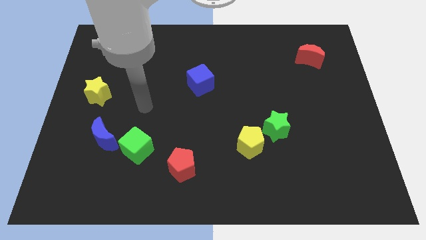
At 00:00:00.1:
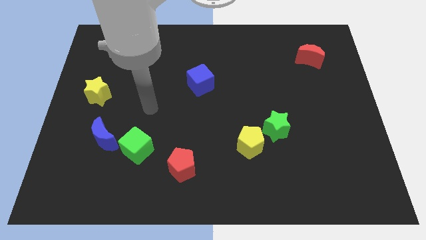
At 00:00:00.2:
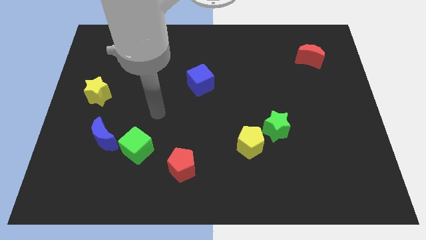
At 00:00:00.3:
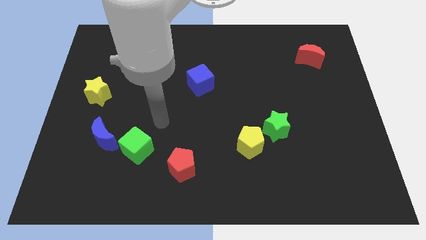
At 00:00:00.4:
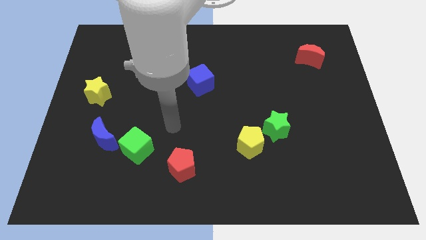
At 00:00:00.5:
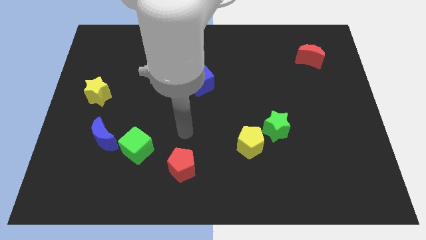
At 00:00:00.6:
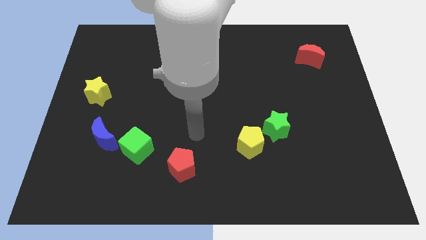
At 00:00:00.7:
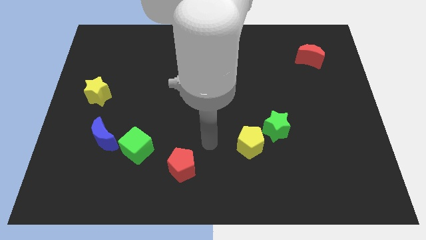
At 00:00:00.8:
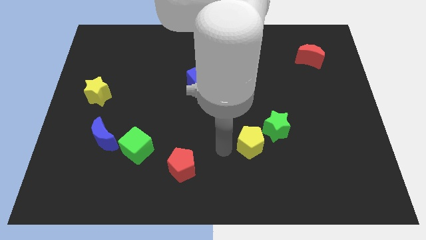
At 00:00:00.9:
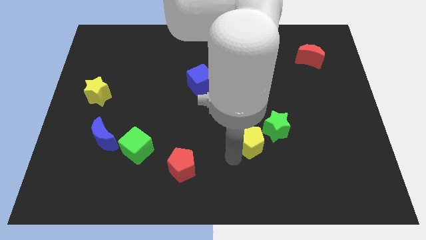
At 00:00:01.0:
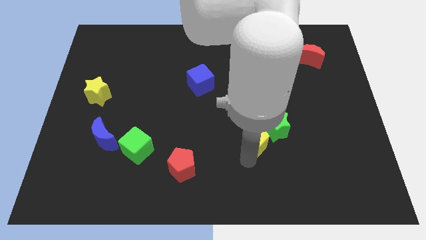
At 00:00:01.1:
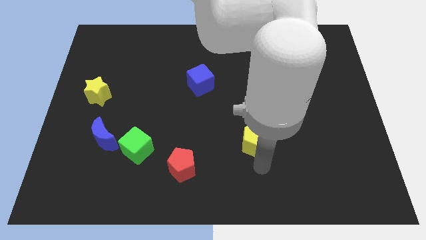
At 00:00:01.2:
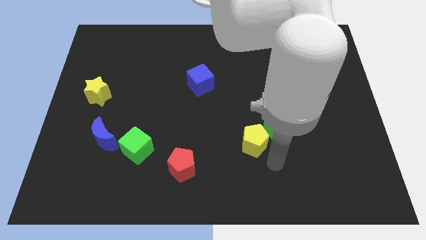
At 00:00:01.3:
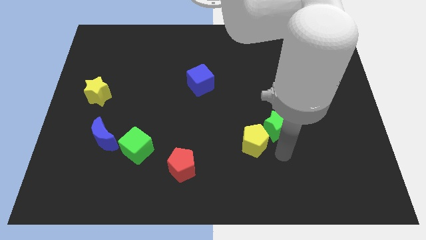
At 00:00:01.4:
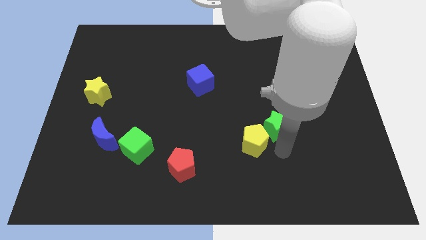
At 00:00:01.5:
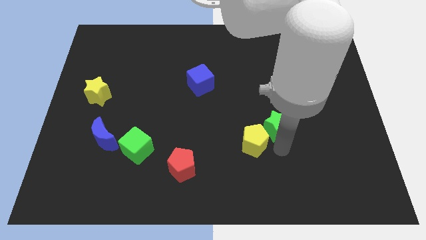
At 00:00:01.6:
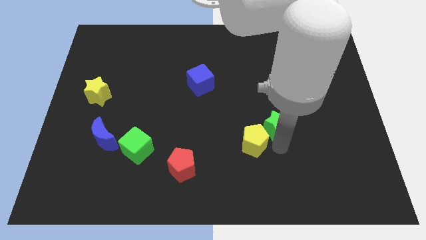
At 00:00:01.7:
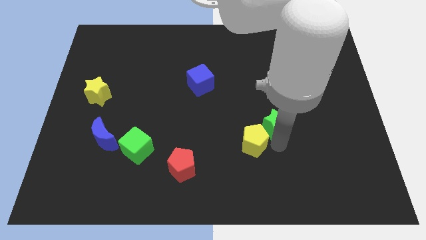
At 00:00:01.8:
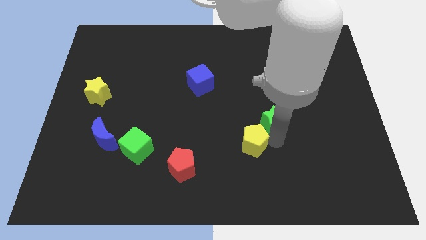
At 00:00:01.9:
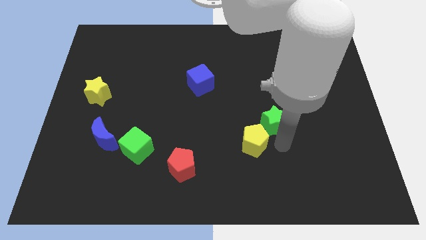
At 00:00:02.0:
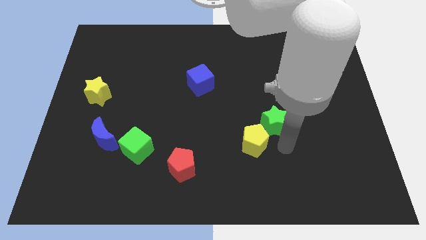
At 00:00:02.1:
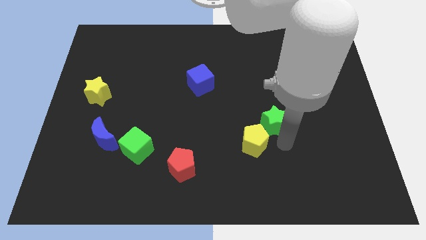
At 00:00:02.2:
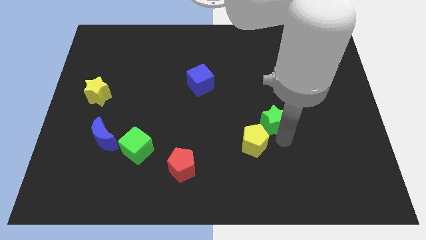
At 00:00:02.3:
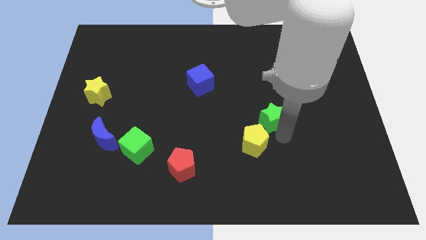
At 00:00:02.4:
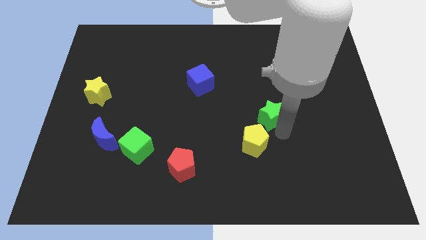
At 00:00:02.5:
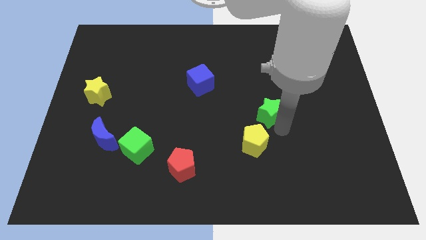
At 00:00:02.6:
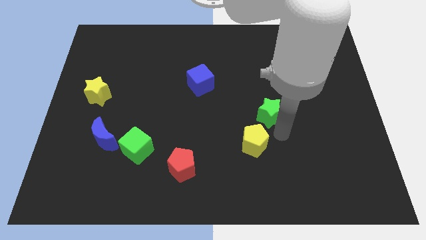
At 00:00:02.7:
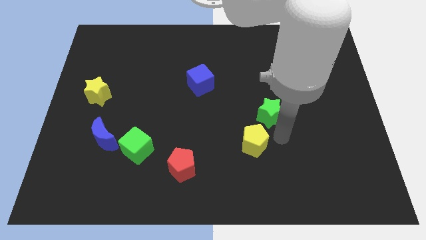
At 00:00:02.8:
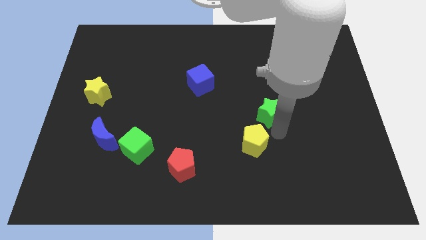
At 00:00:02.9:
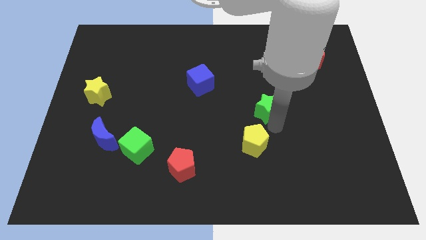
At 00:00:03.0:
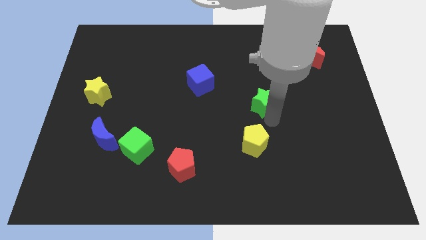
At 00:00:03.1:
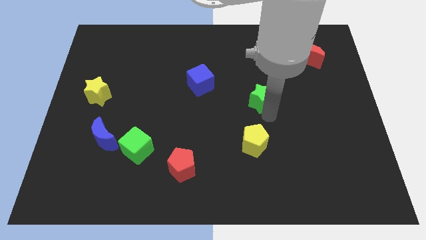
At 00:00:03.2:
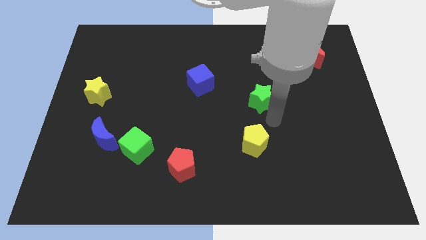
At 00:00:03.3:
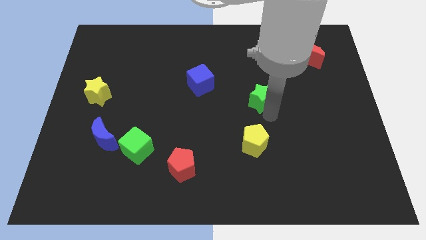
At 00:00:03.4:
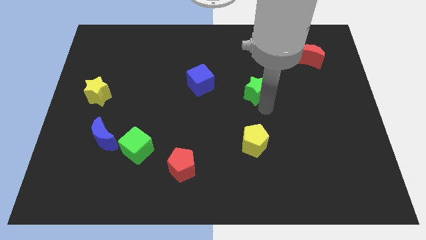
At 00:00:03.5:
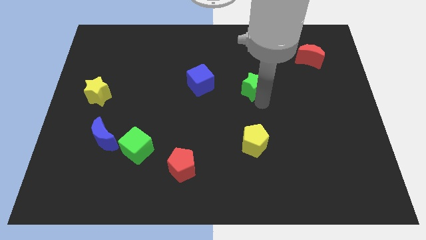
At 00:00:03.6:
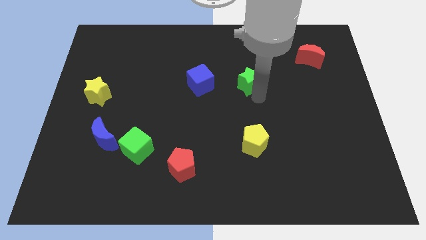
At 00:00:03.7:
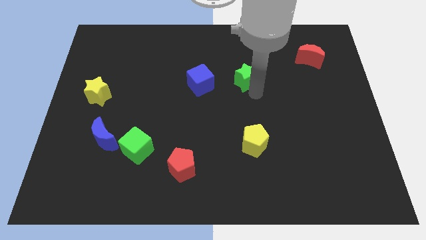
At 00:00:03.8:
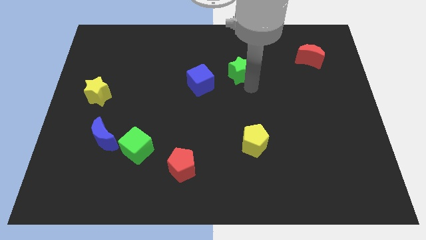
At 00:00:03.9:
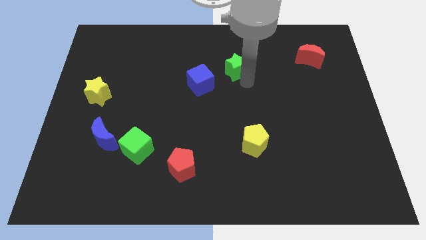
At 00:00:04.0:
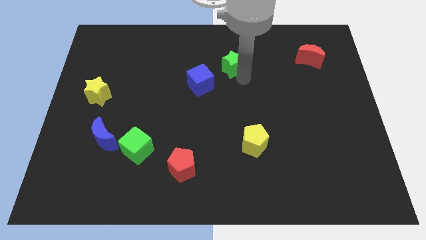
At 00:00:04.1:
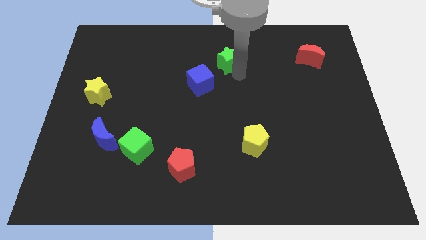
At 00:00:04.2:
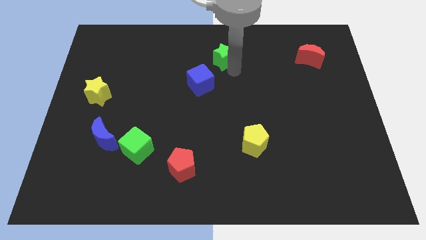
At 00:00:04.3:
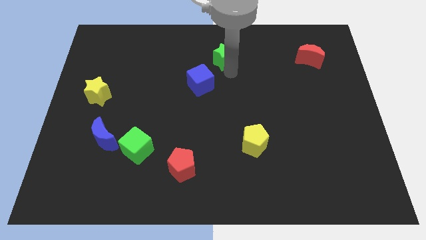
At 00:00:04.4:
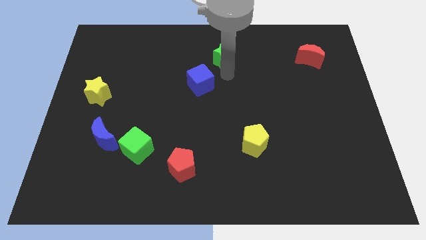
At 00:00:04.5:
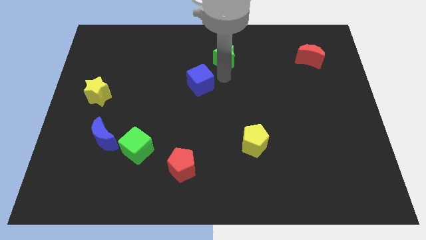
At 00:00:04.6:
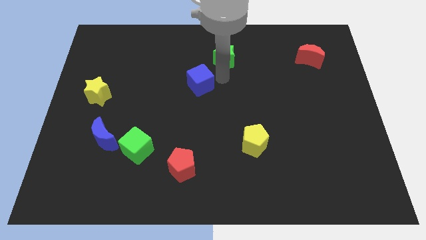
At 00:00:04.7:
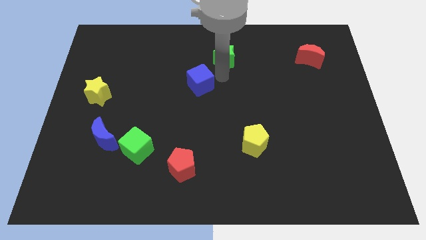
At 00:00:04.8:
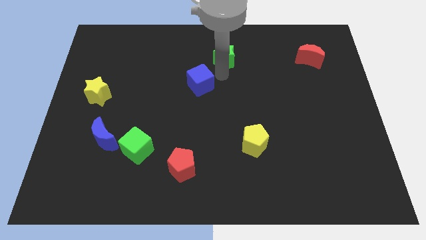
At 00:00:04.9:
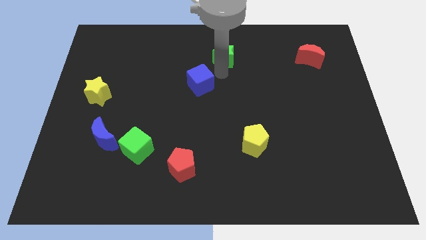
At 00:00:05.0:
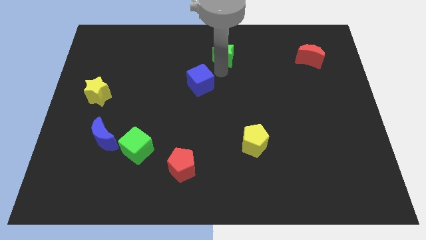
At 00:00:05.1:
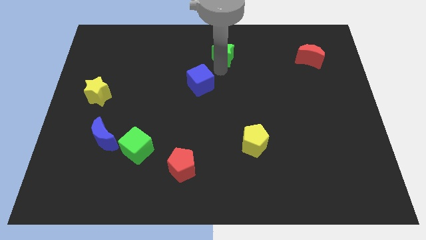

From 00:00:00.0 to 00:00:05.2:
put the green star to the top side

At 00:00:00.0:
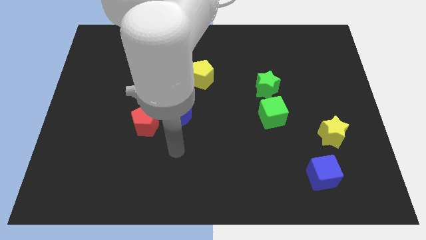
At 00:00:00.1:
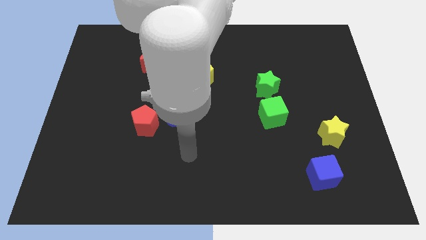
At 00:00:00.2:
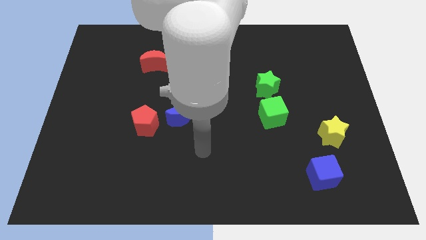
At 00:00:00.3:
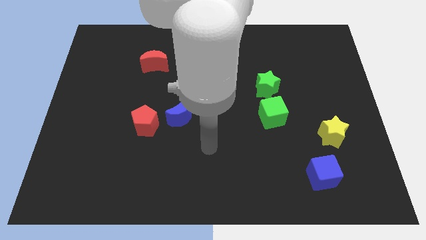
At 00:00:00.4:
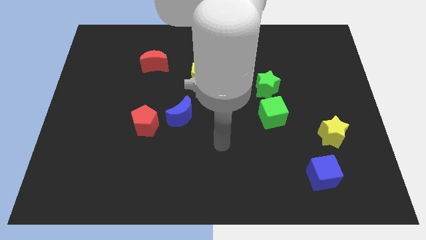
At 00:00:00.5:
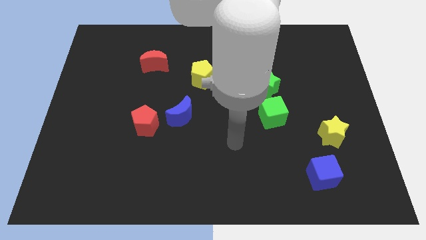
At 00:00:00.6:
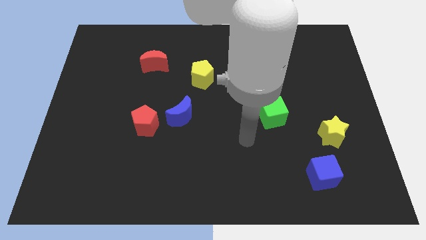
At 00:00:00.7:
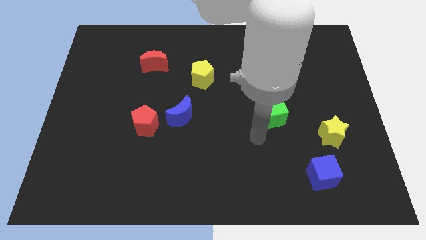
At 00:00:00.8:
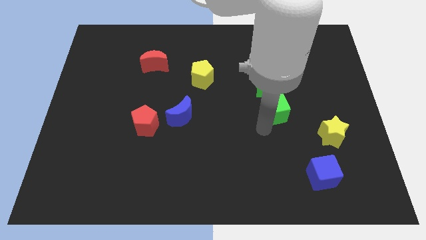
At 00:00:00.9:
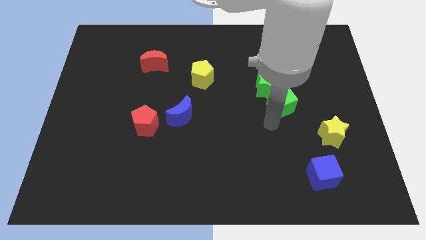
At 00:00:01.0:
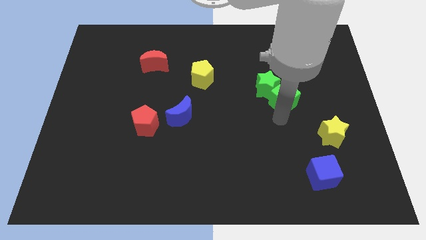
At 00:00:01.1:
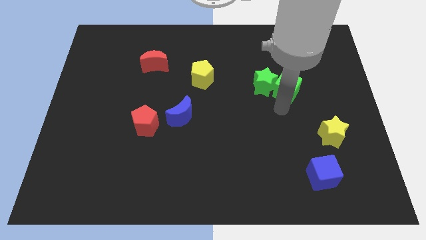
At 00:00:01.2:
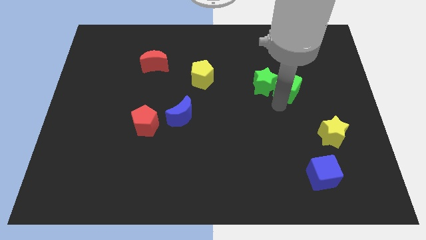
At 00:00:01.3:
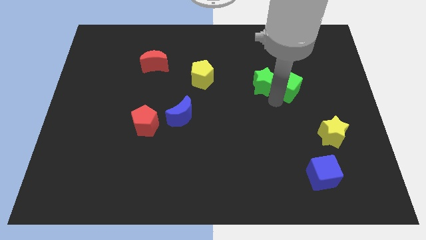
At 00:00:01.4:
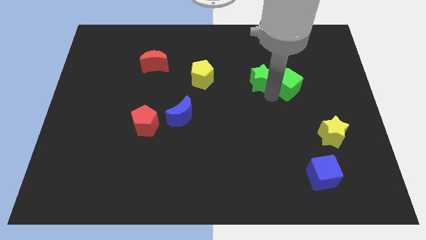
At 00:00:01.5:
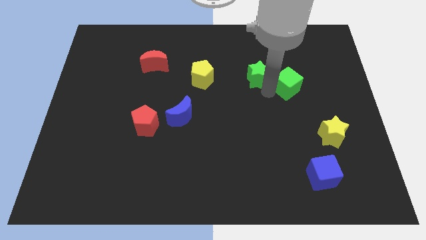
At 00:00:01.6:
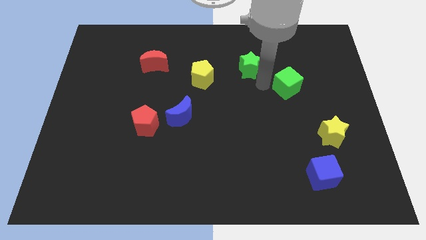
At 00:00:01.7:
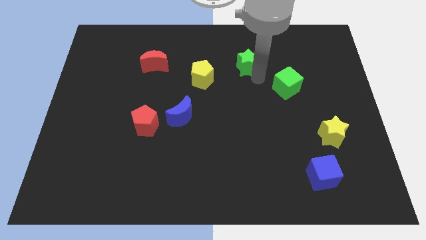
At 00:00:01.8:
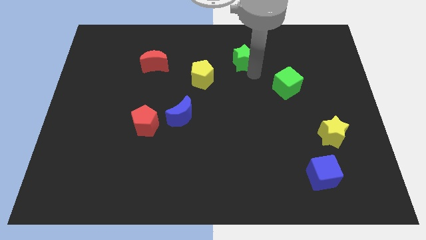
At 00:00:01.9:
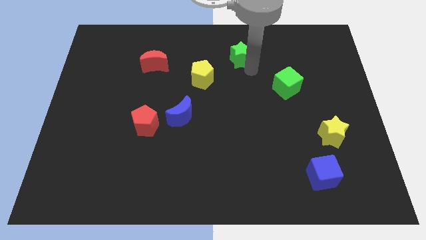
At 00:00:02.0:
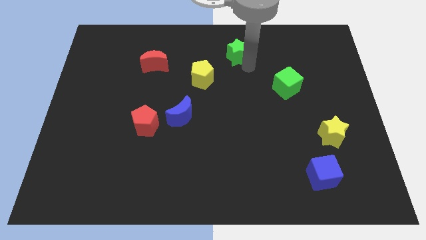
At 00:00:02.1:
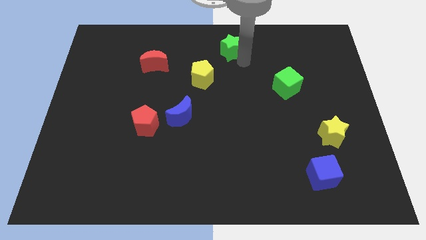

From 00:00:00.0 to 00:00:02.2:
push the green star to the top side
